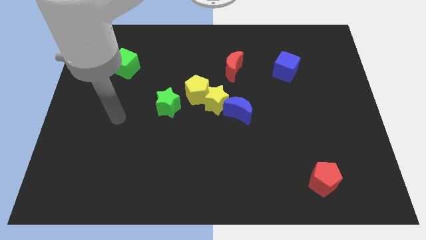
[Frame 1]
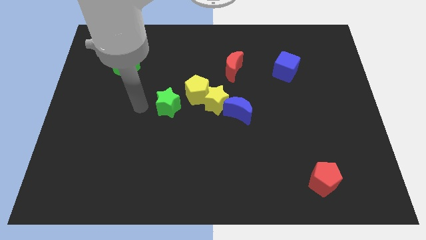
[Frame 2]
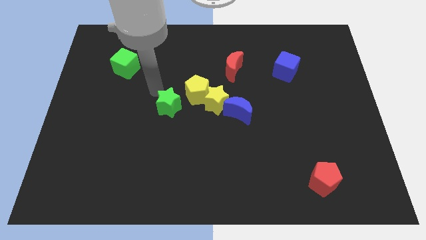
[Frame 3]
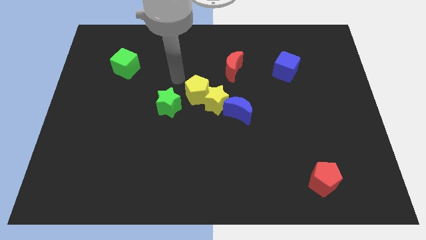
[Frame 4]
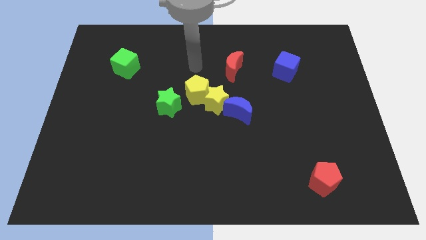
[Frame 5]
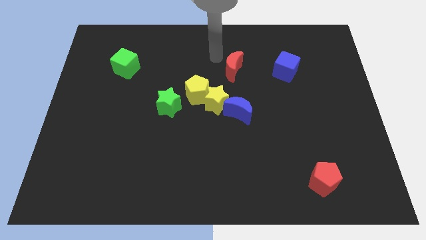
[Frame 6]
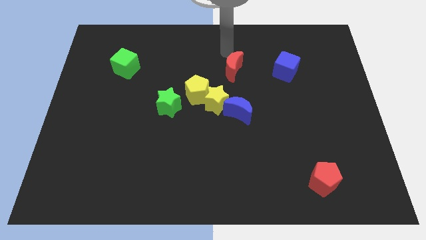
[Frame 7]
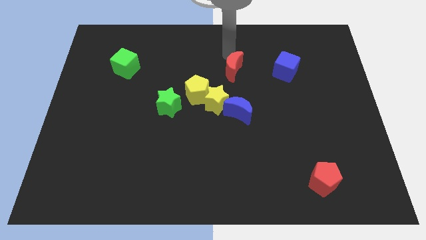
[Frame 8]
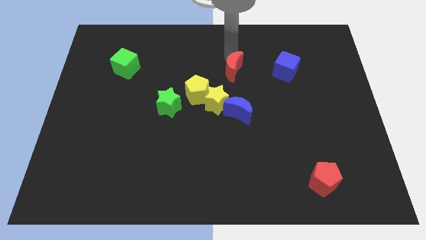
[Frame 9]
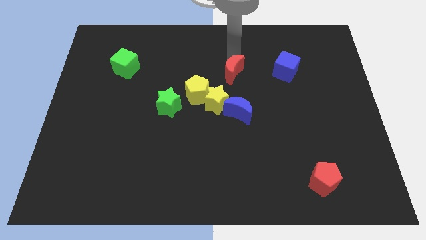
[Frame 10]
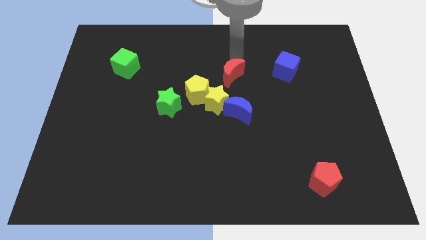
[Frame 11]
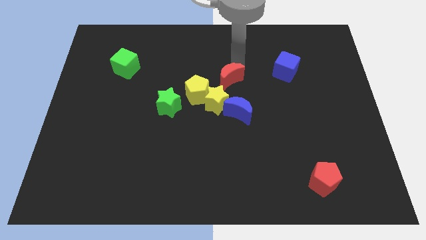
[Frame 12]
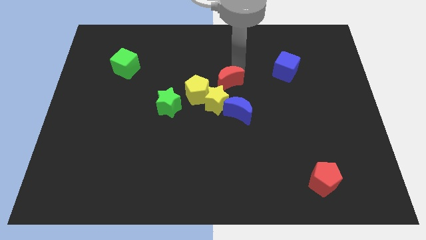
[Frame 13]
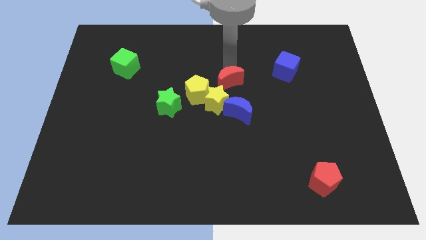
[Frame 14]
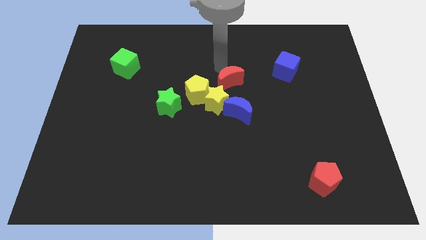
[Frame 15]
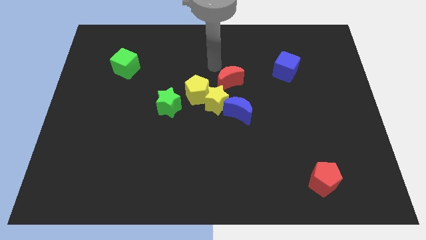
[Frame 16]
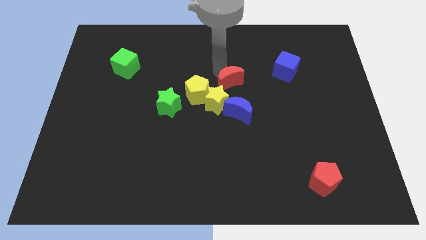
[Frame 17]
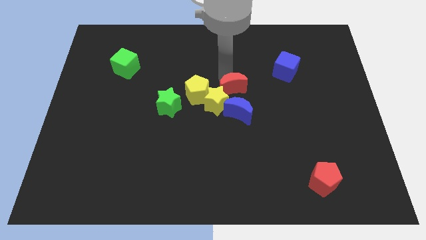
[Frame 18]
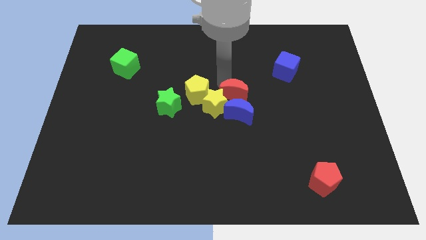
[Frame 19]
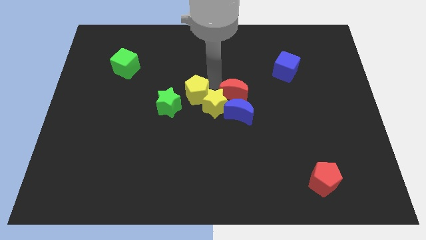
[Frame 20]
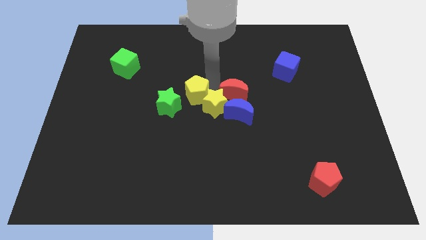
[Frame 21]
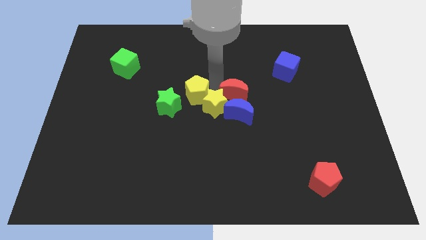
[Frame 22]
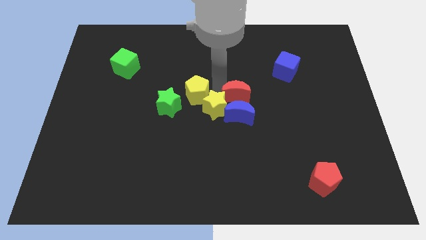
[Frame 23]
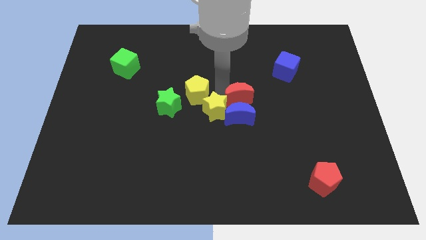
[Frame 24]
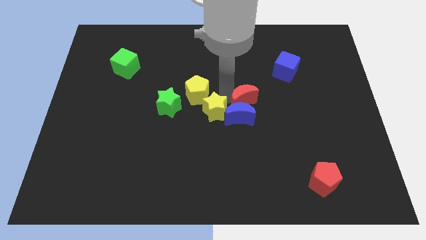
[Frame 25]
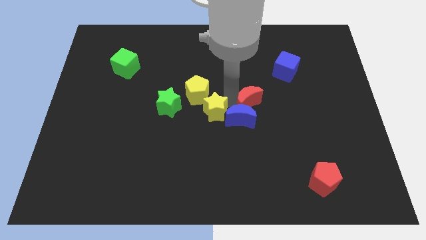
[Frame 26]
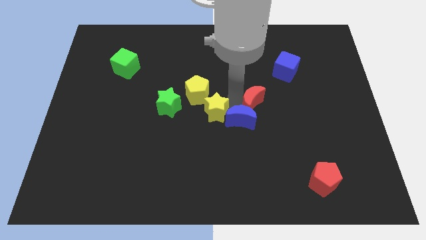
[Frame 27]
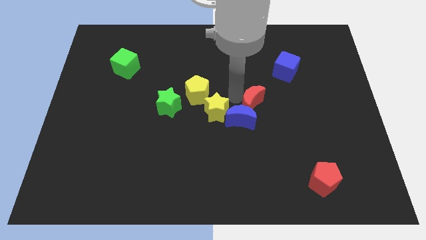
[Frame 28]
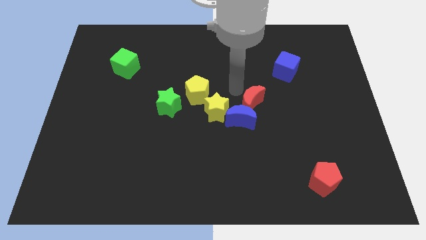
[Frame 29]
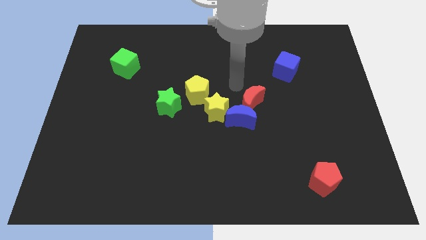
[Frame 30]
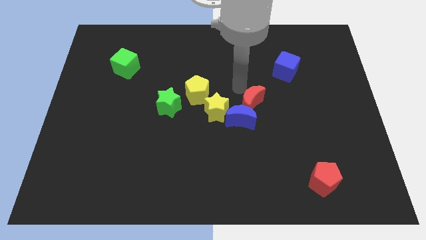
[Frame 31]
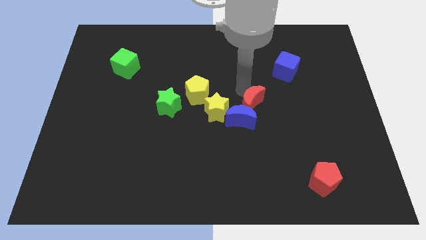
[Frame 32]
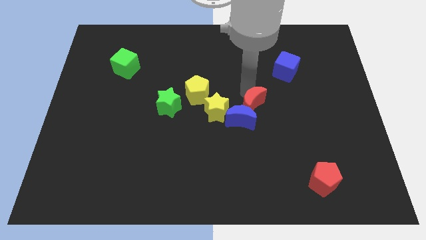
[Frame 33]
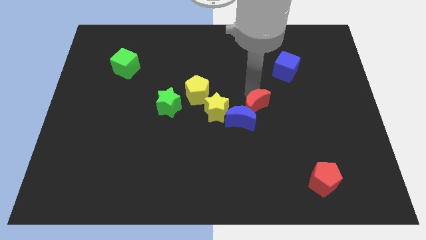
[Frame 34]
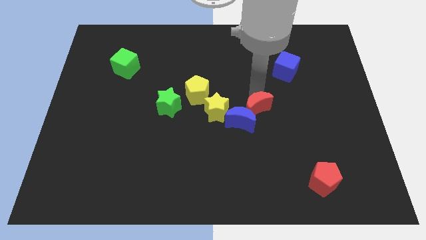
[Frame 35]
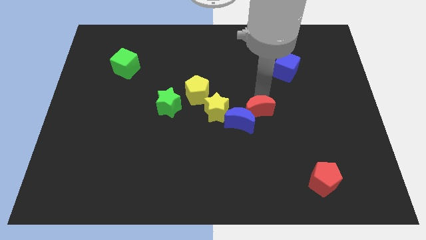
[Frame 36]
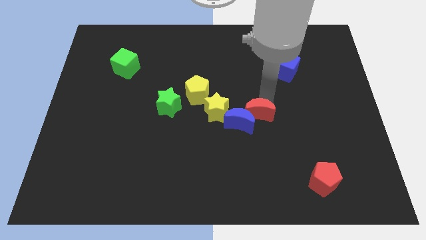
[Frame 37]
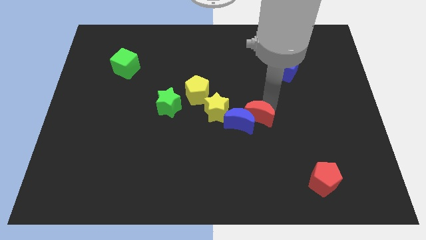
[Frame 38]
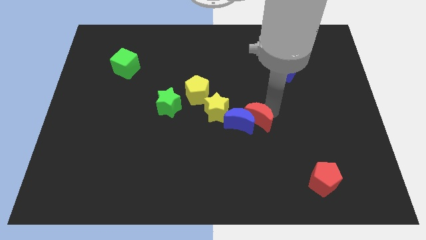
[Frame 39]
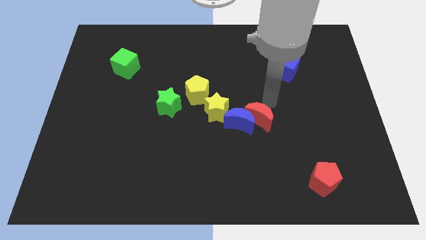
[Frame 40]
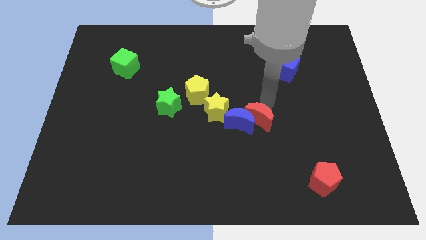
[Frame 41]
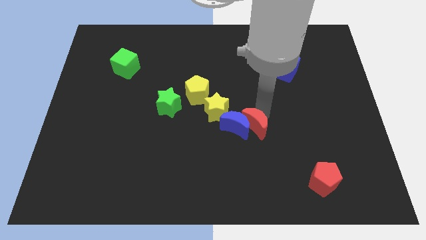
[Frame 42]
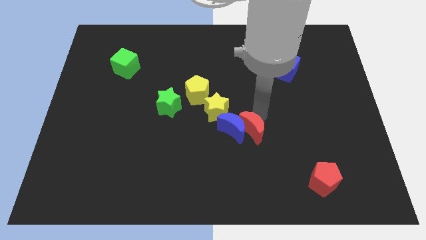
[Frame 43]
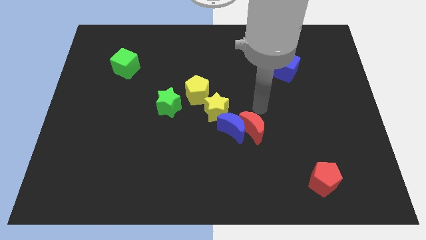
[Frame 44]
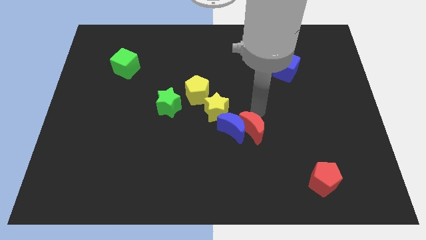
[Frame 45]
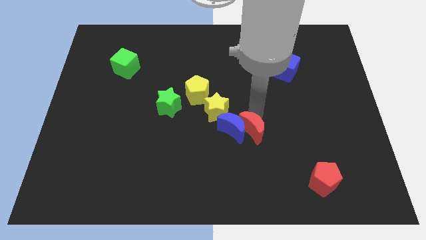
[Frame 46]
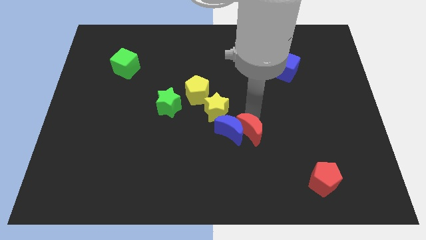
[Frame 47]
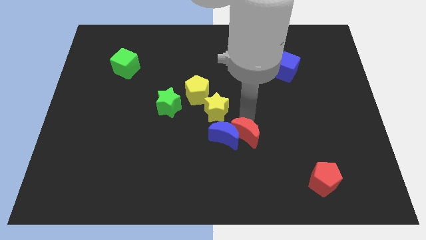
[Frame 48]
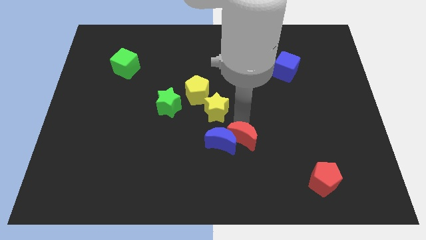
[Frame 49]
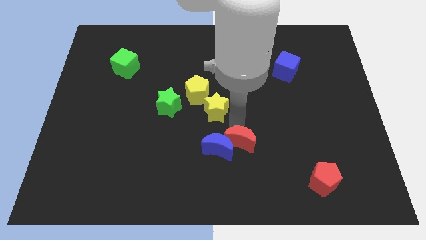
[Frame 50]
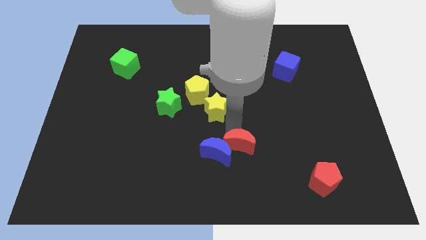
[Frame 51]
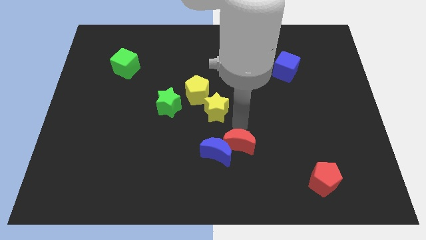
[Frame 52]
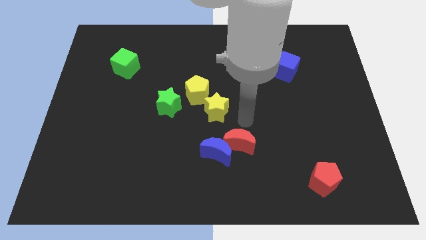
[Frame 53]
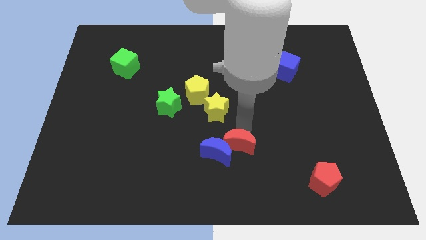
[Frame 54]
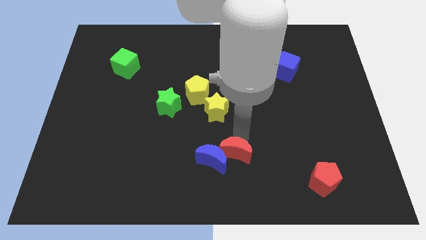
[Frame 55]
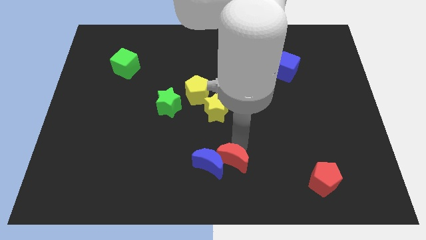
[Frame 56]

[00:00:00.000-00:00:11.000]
put the red moon to the bottom
